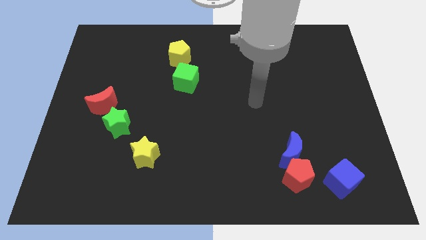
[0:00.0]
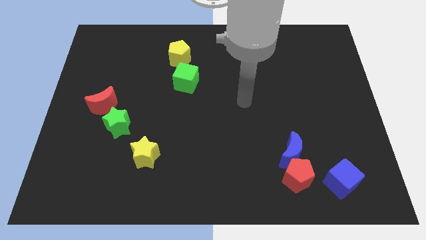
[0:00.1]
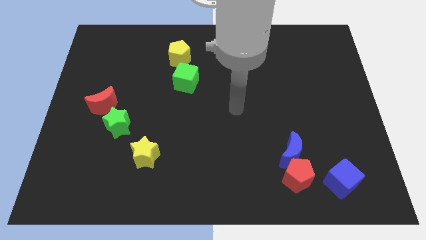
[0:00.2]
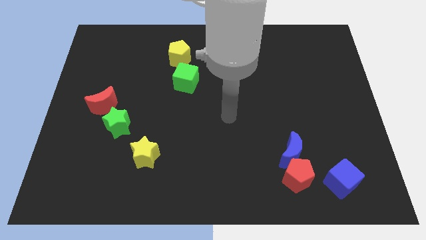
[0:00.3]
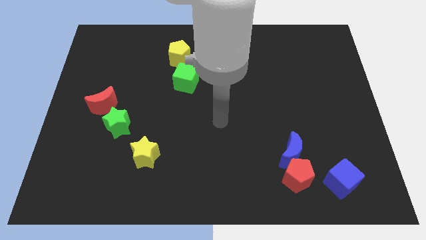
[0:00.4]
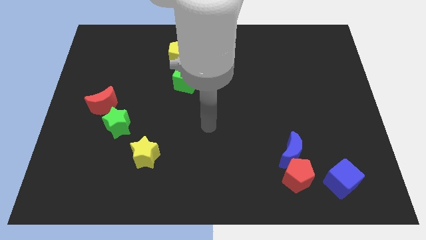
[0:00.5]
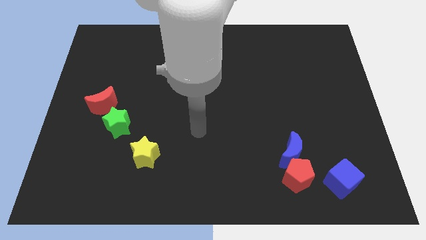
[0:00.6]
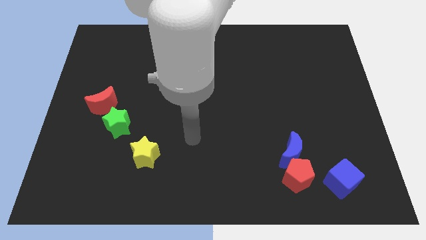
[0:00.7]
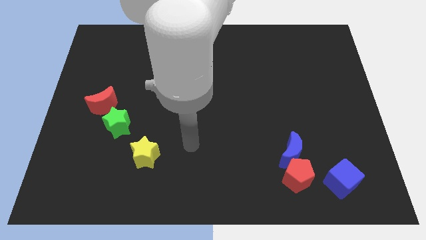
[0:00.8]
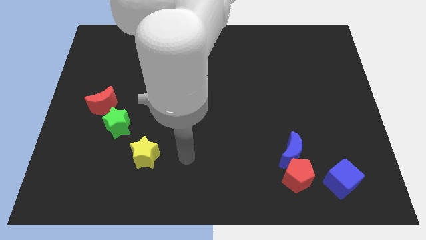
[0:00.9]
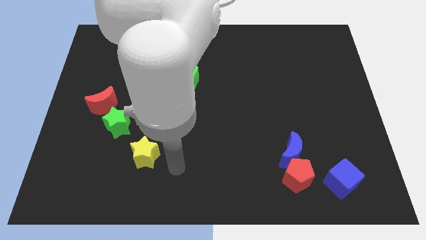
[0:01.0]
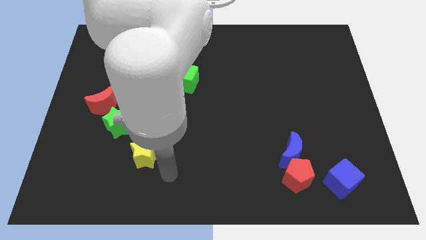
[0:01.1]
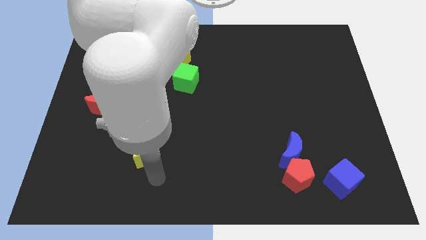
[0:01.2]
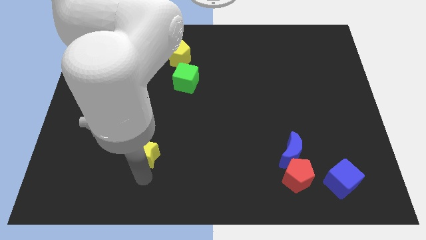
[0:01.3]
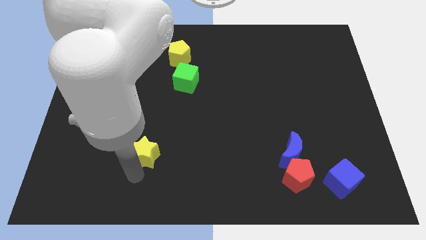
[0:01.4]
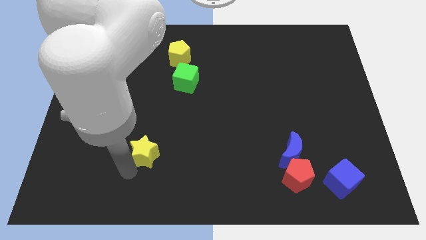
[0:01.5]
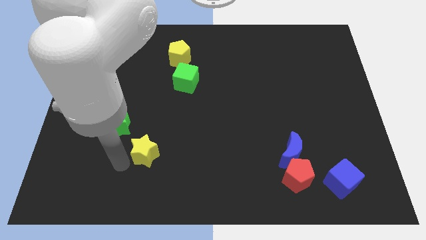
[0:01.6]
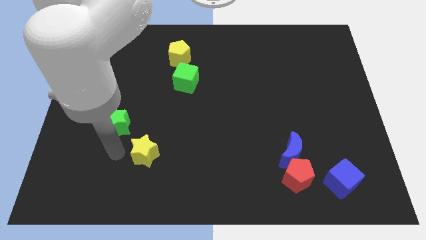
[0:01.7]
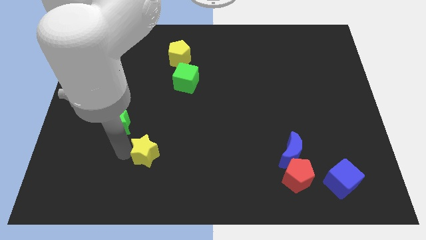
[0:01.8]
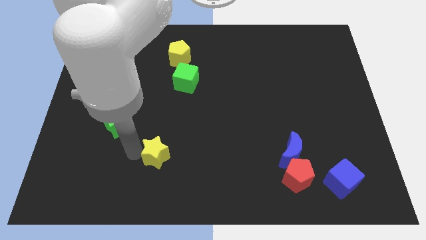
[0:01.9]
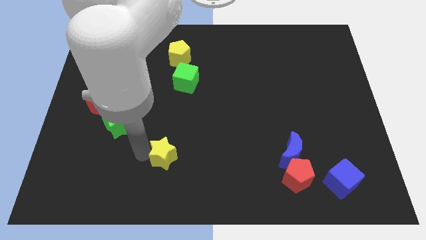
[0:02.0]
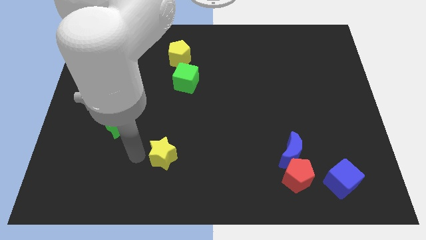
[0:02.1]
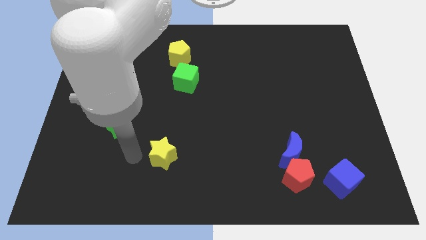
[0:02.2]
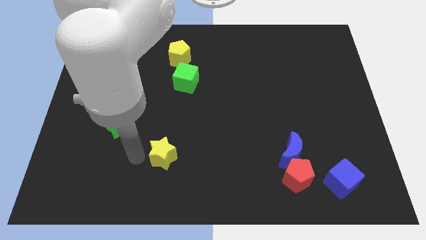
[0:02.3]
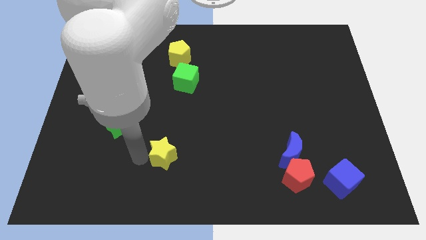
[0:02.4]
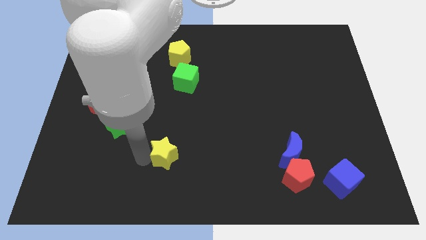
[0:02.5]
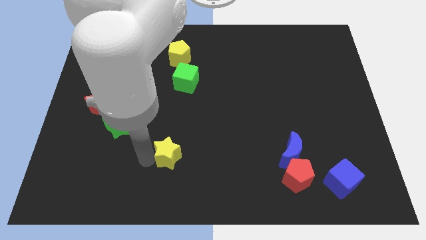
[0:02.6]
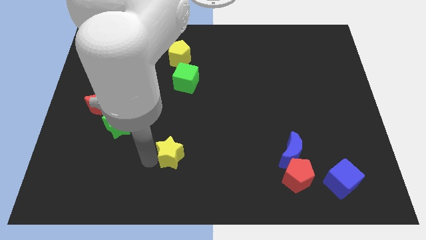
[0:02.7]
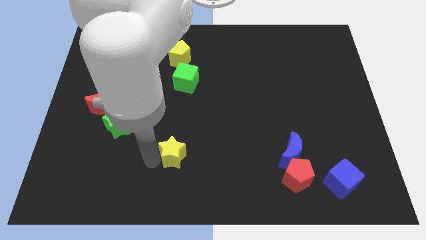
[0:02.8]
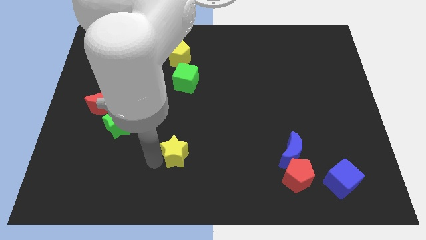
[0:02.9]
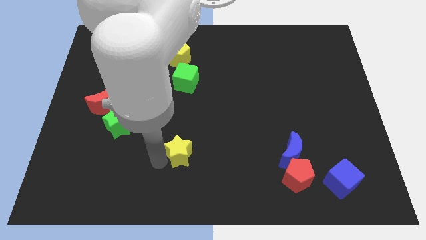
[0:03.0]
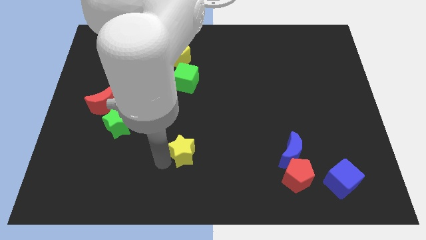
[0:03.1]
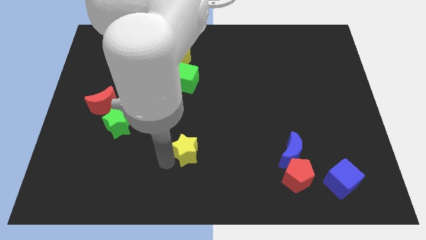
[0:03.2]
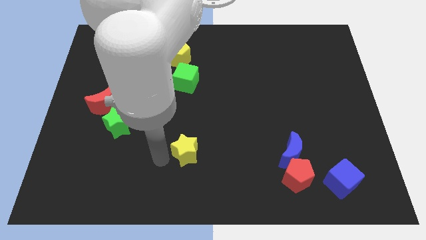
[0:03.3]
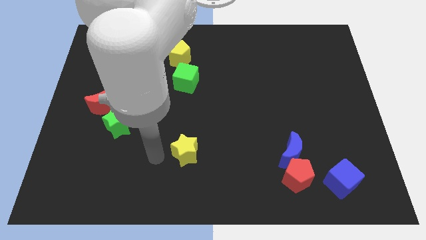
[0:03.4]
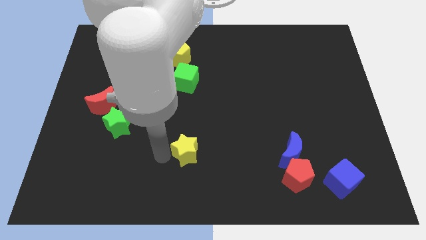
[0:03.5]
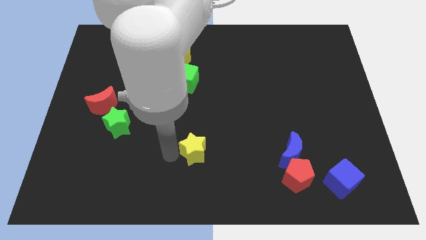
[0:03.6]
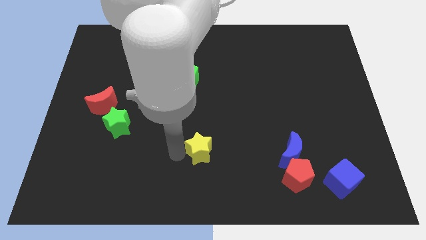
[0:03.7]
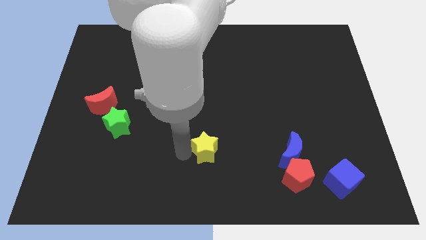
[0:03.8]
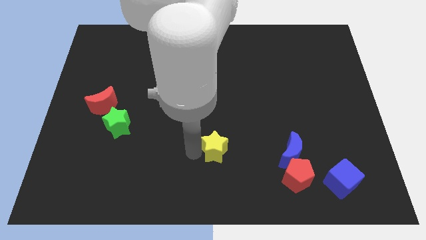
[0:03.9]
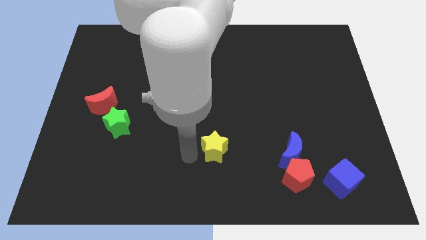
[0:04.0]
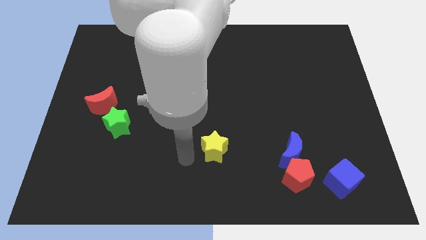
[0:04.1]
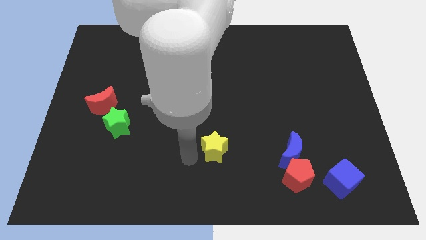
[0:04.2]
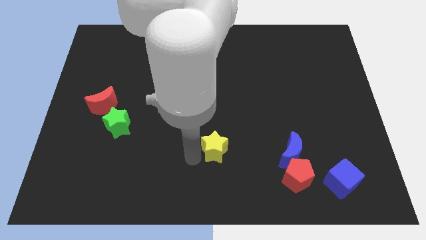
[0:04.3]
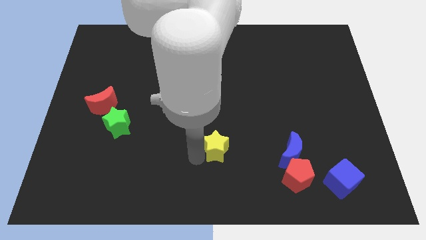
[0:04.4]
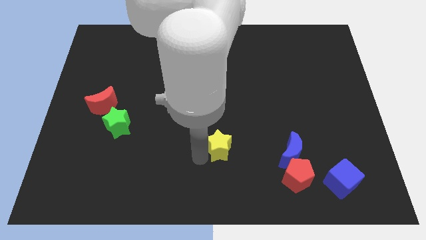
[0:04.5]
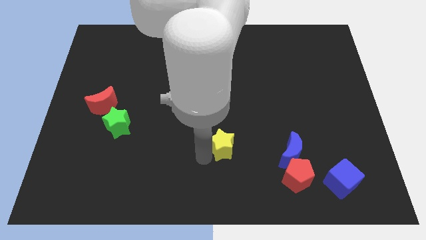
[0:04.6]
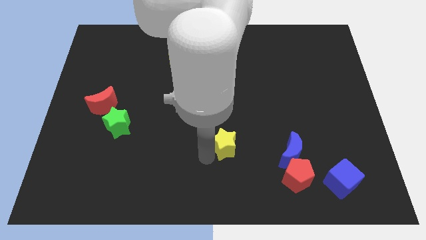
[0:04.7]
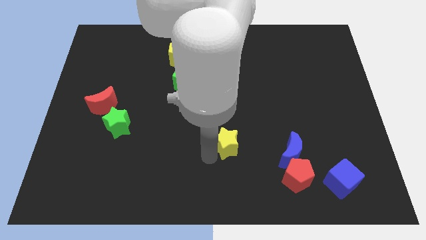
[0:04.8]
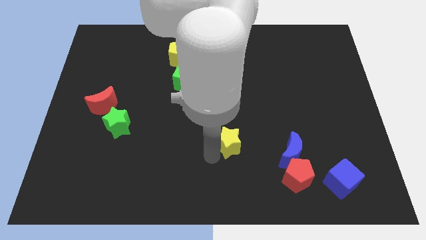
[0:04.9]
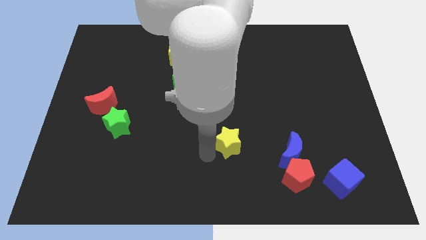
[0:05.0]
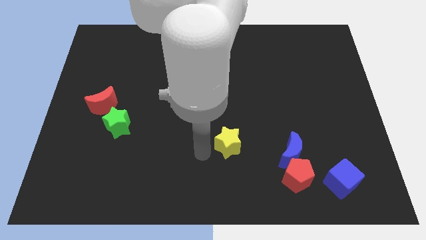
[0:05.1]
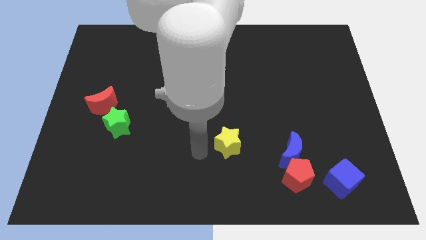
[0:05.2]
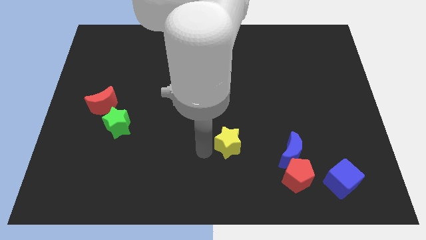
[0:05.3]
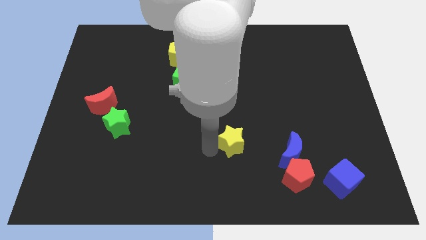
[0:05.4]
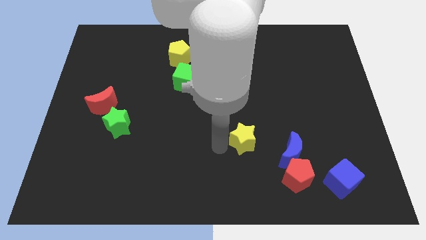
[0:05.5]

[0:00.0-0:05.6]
push the yellow star to the top left of the blue moon

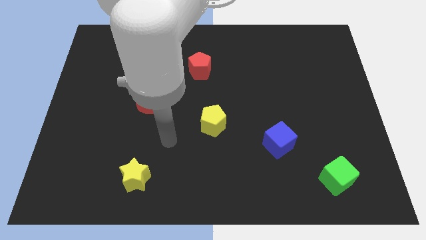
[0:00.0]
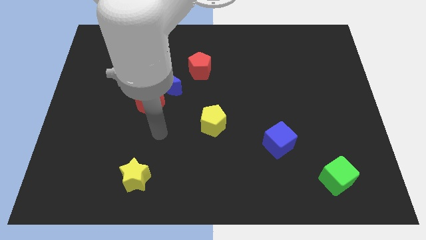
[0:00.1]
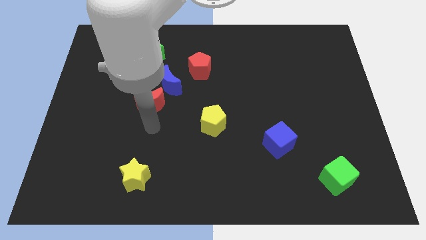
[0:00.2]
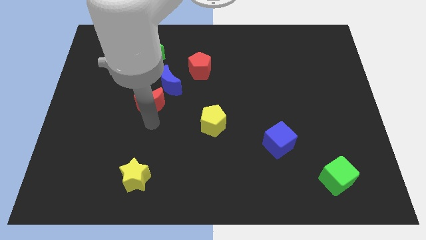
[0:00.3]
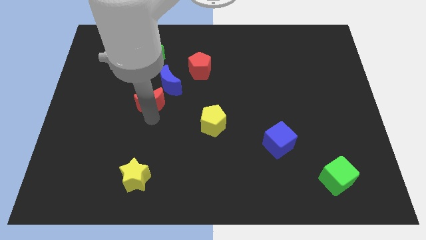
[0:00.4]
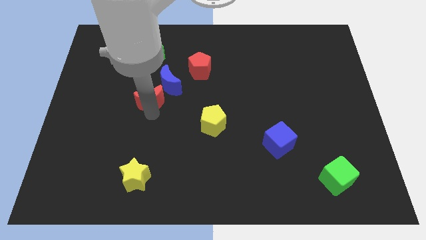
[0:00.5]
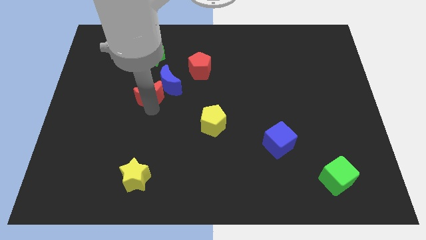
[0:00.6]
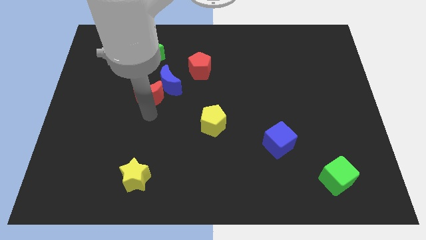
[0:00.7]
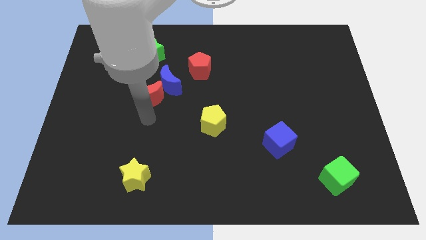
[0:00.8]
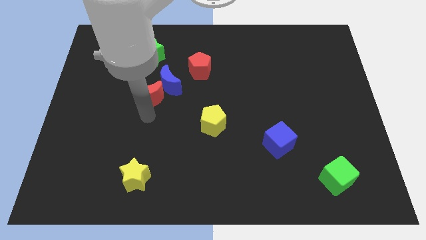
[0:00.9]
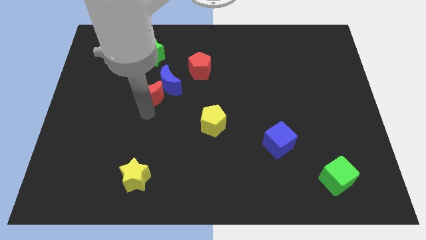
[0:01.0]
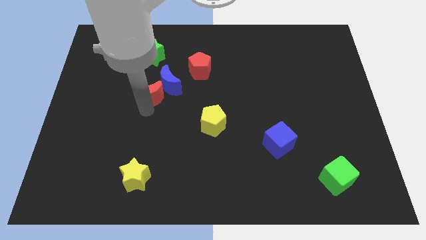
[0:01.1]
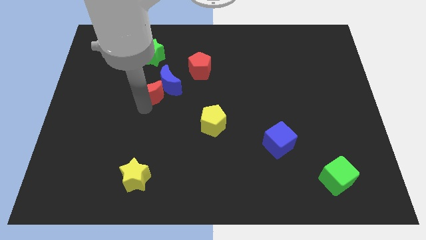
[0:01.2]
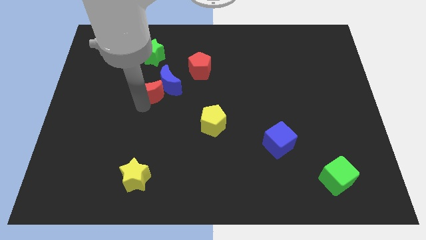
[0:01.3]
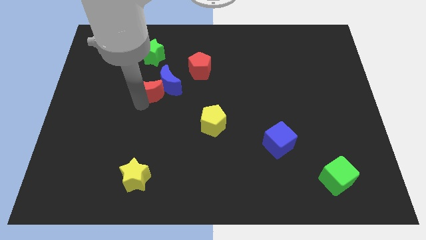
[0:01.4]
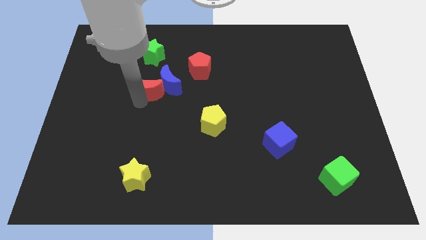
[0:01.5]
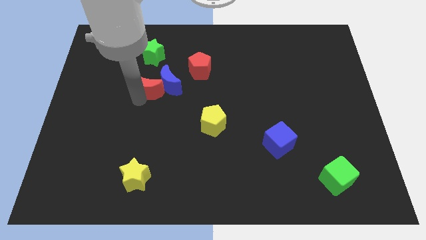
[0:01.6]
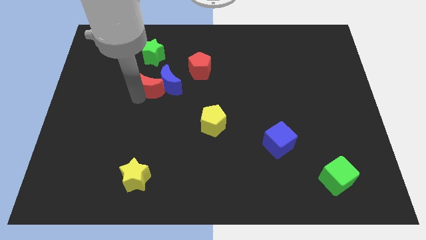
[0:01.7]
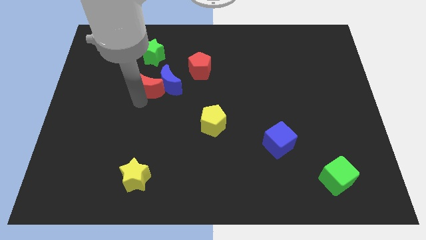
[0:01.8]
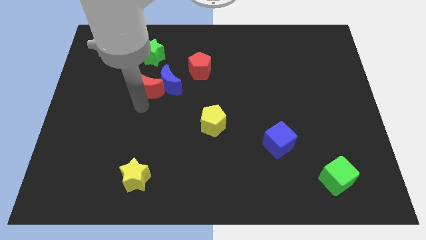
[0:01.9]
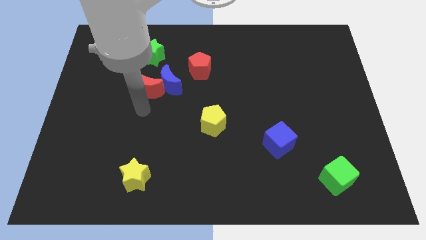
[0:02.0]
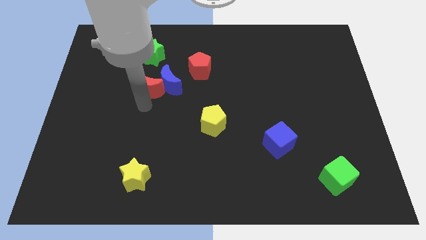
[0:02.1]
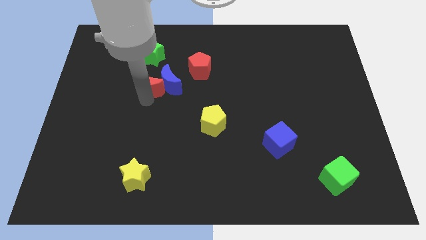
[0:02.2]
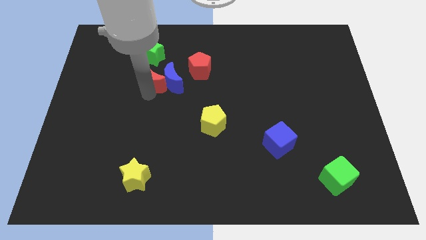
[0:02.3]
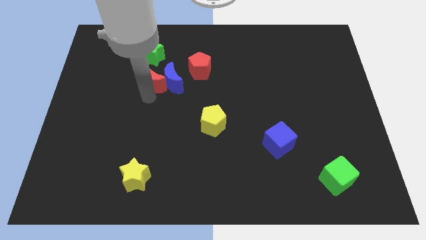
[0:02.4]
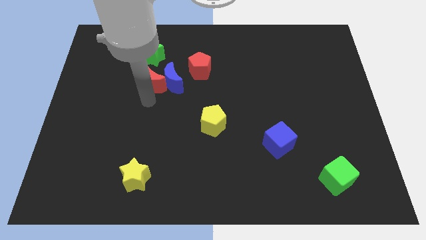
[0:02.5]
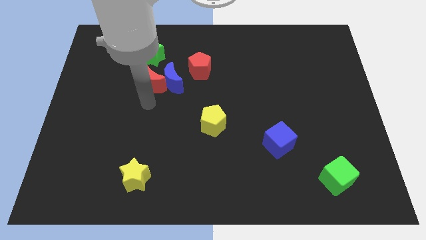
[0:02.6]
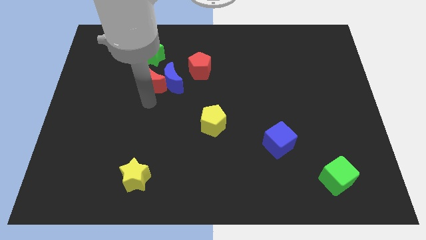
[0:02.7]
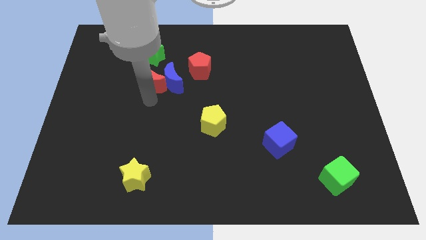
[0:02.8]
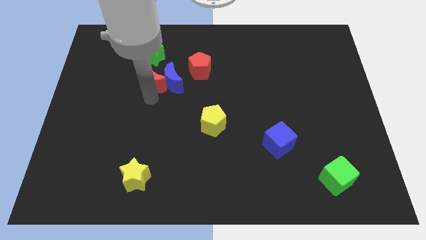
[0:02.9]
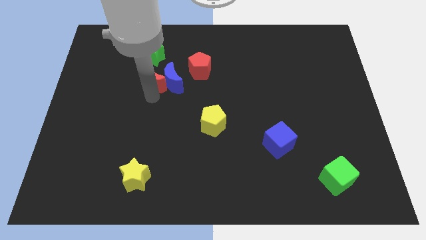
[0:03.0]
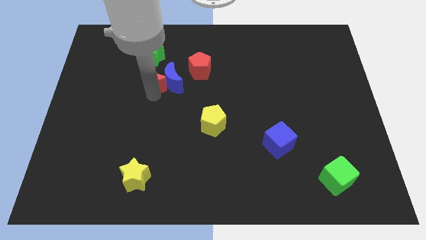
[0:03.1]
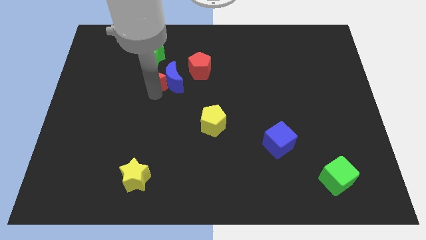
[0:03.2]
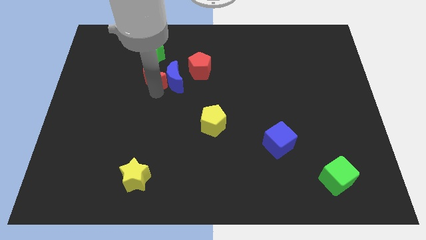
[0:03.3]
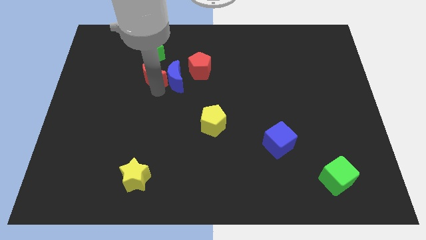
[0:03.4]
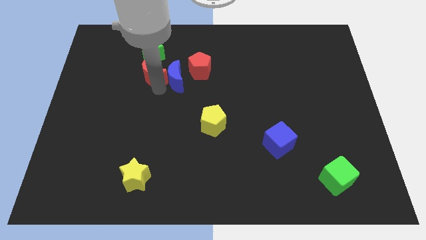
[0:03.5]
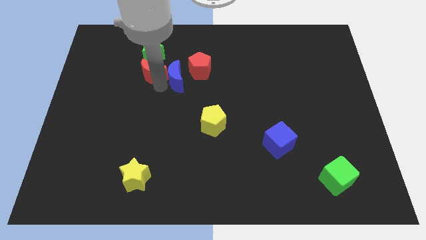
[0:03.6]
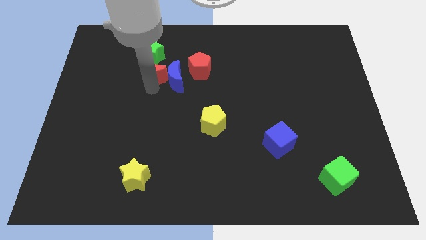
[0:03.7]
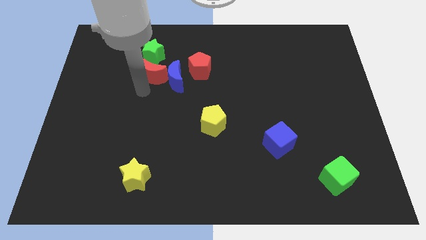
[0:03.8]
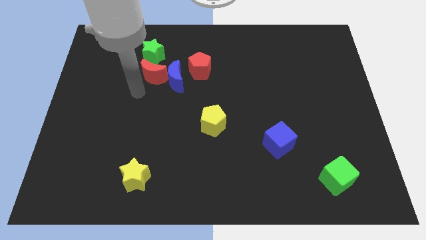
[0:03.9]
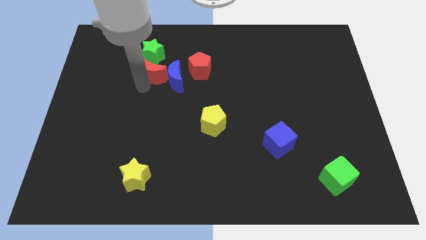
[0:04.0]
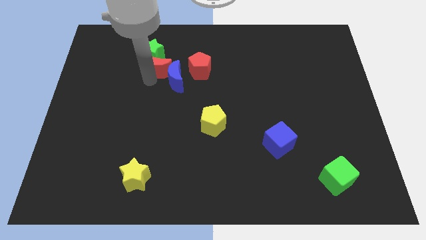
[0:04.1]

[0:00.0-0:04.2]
move the red moon to the top side of the blue moon
